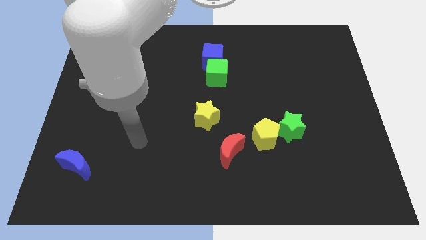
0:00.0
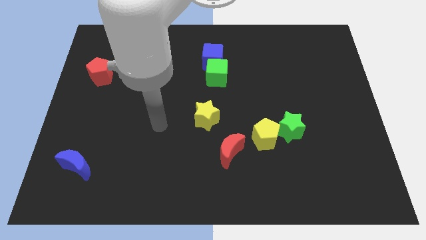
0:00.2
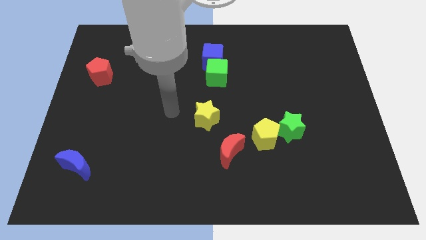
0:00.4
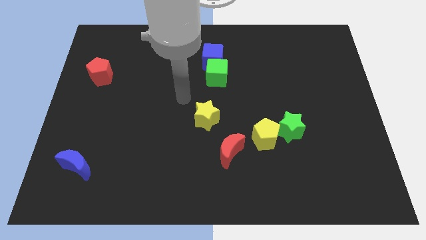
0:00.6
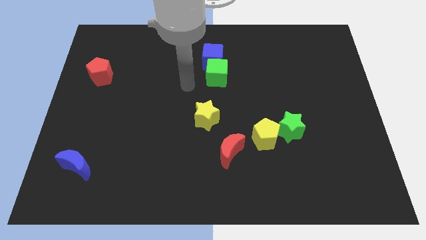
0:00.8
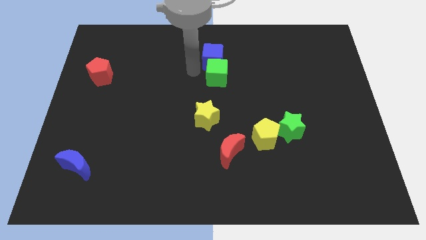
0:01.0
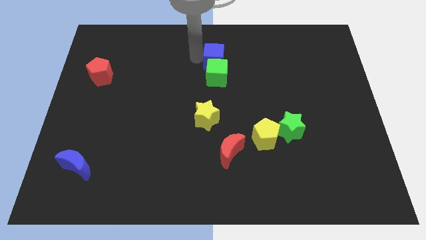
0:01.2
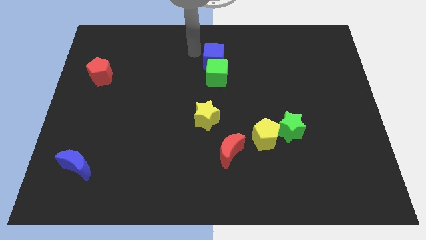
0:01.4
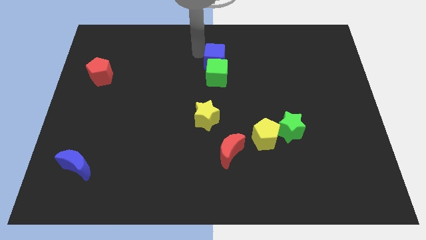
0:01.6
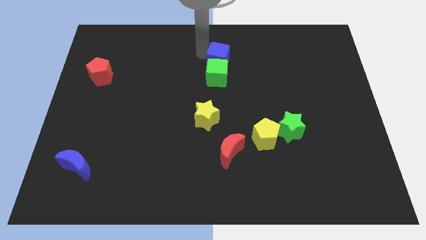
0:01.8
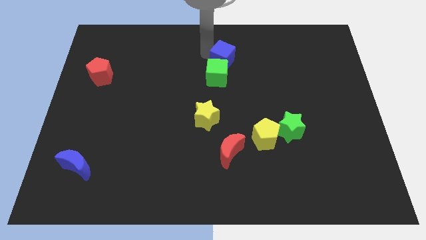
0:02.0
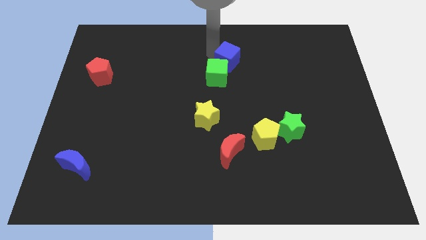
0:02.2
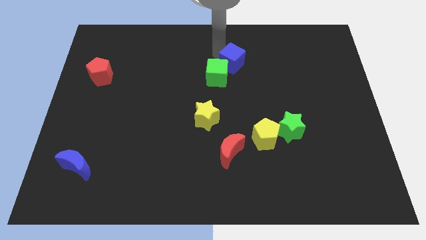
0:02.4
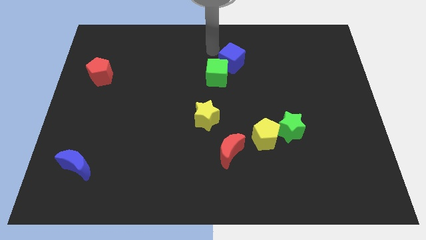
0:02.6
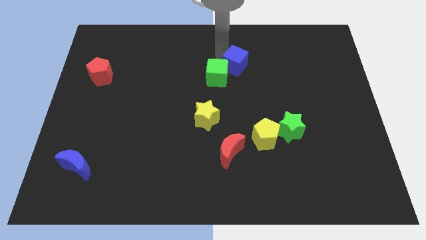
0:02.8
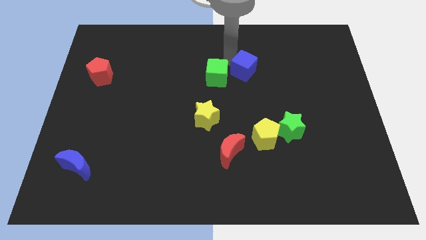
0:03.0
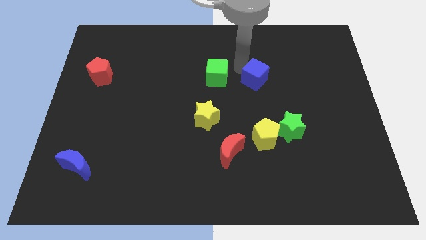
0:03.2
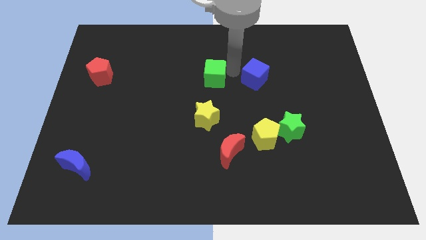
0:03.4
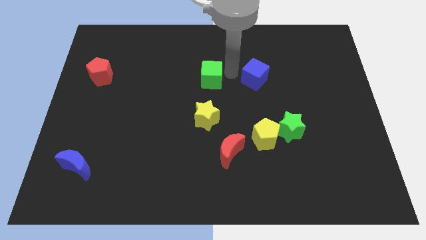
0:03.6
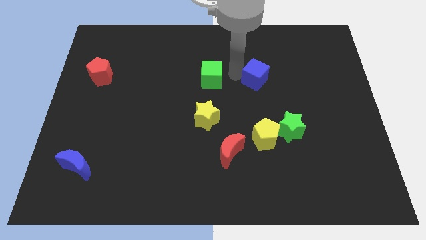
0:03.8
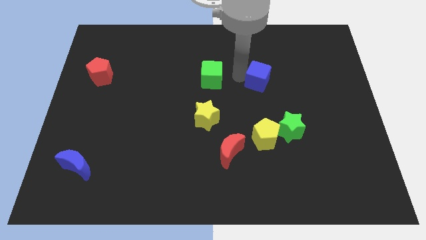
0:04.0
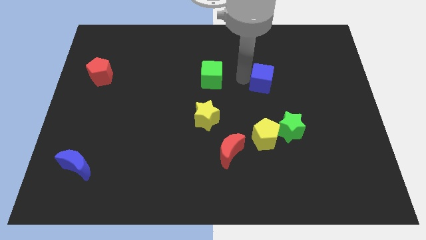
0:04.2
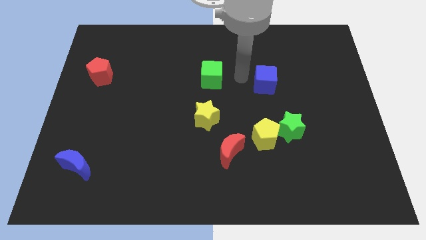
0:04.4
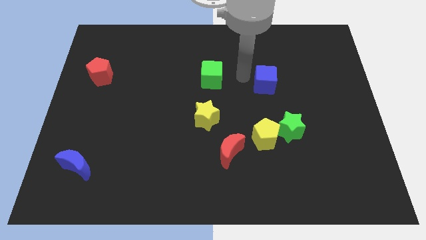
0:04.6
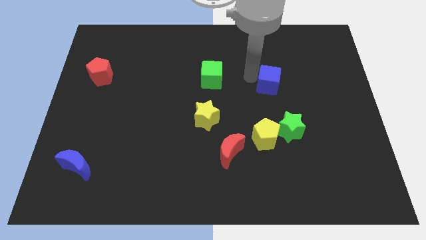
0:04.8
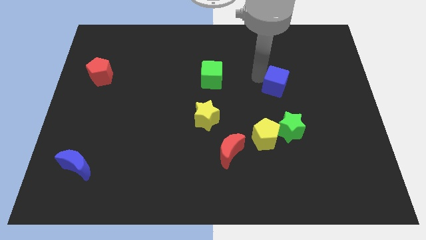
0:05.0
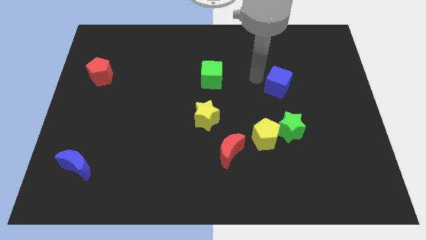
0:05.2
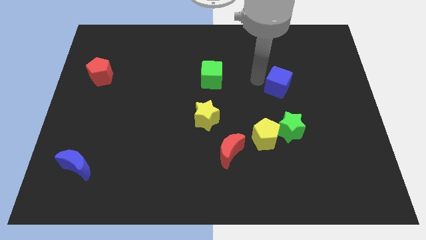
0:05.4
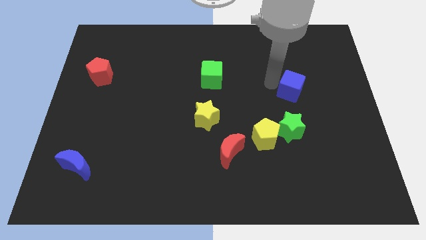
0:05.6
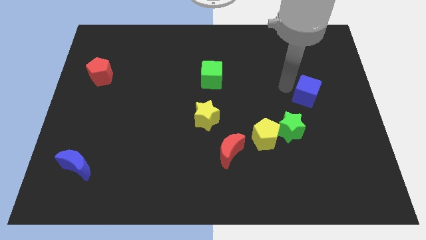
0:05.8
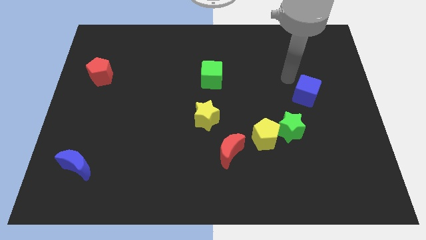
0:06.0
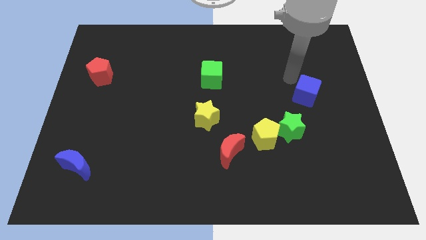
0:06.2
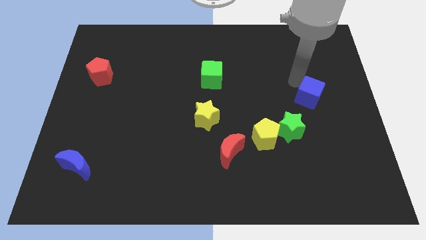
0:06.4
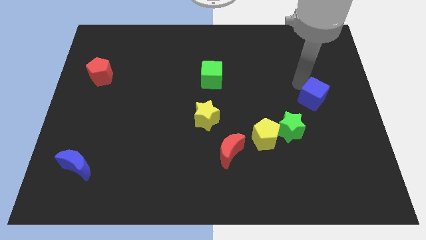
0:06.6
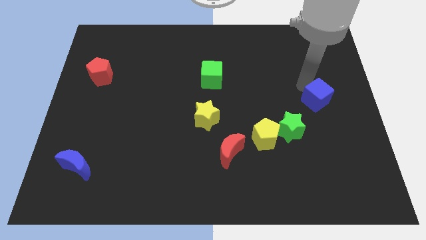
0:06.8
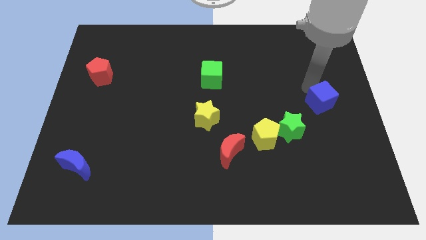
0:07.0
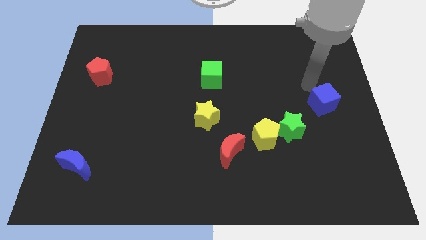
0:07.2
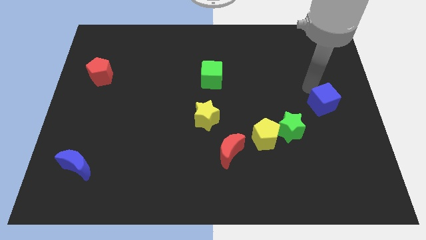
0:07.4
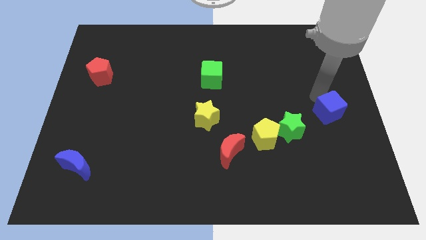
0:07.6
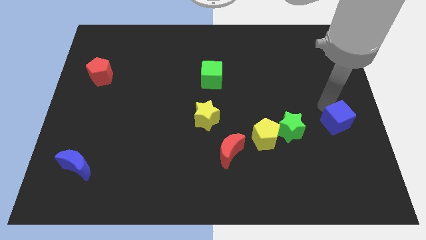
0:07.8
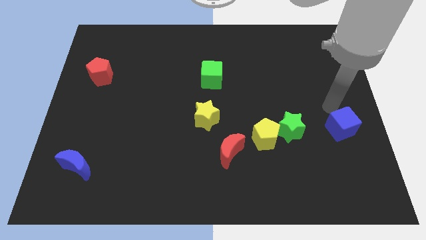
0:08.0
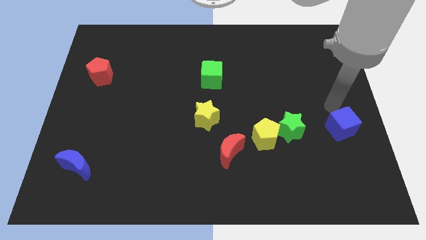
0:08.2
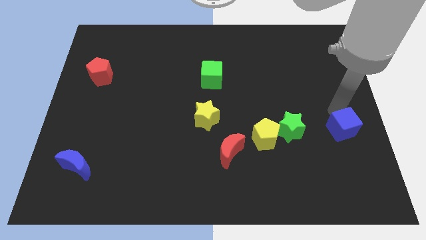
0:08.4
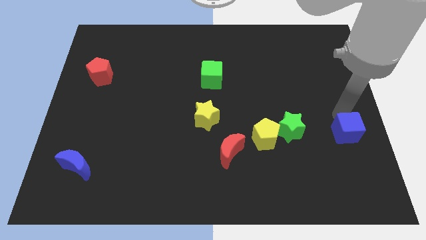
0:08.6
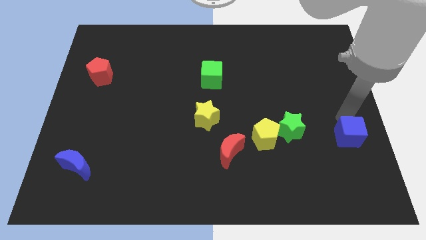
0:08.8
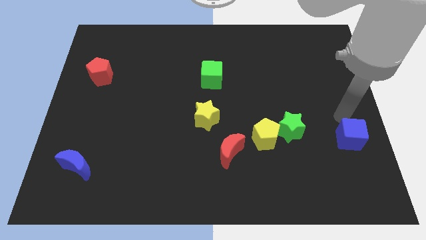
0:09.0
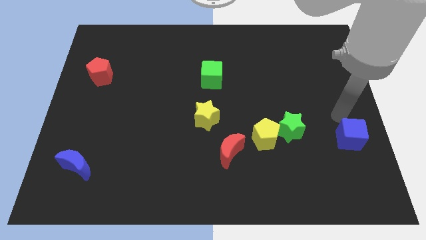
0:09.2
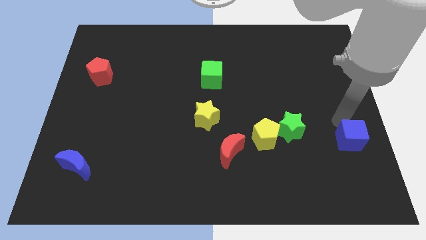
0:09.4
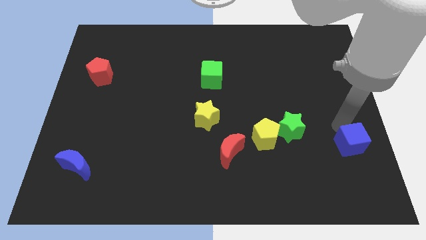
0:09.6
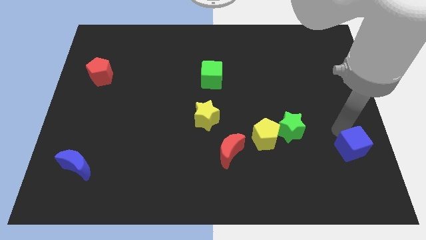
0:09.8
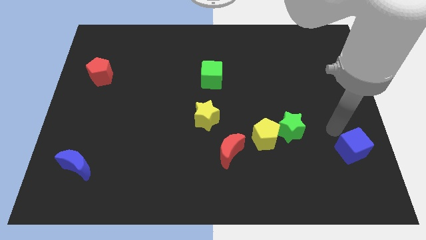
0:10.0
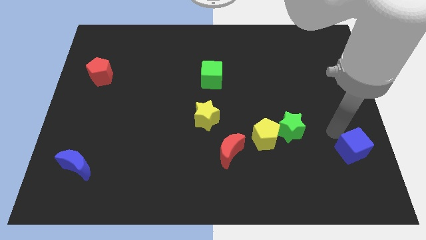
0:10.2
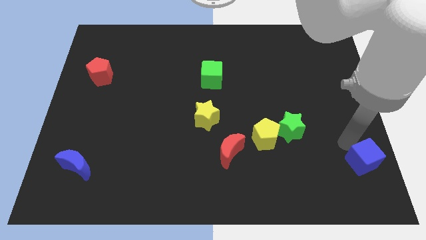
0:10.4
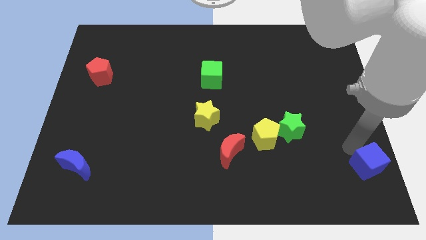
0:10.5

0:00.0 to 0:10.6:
slide the blue cube to the lower right corner
